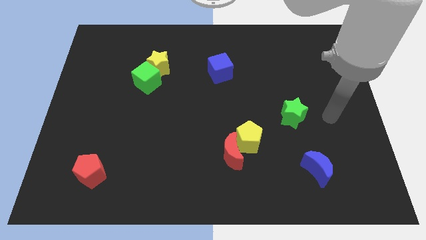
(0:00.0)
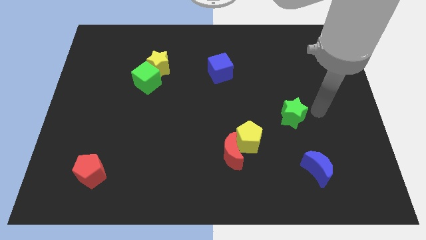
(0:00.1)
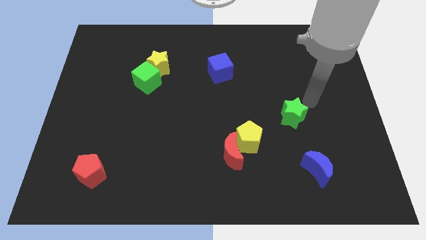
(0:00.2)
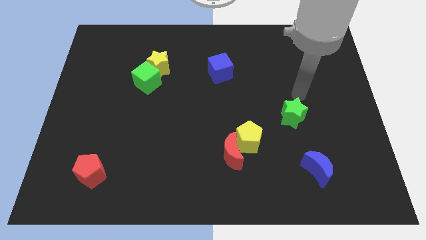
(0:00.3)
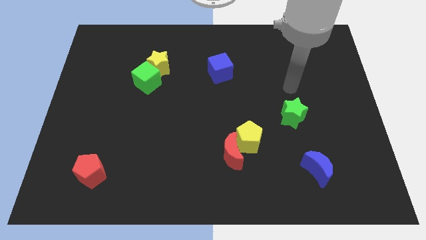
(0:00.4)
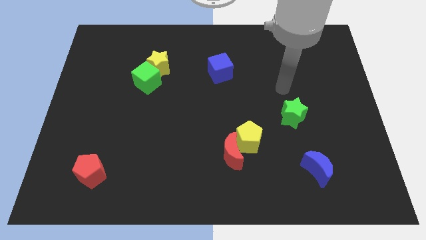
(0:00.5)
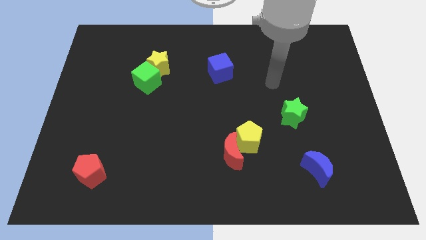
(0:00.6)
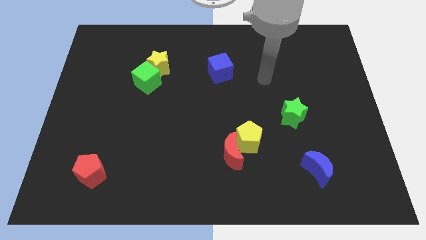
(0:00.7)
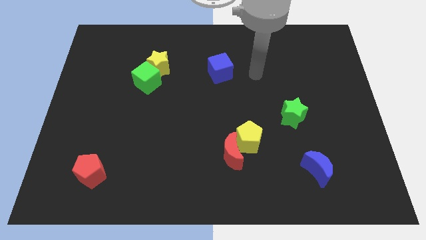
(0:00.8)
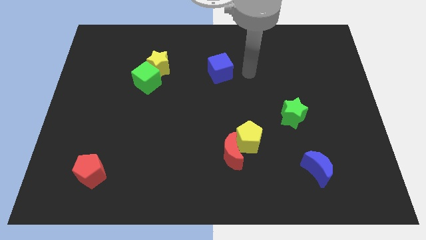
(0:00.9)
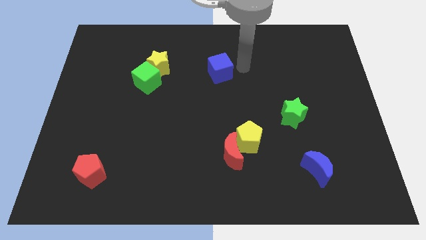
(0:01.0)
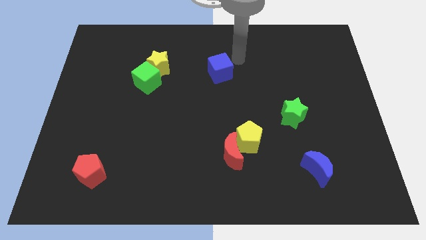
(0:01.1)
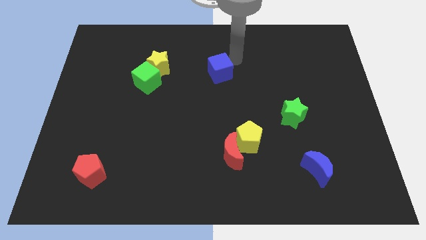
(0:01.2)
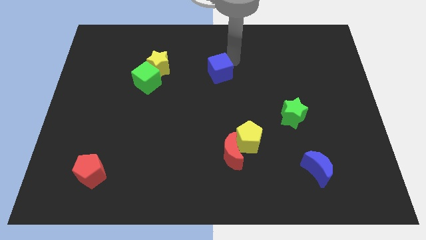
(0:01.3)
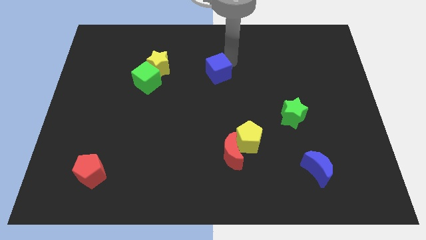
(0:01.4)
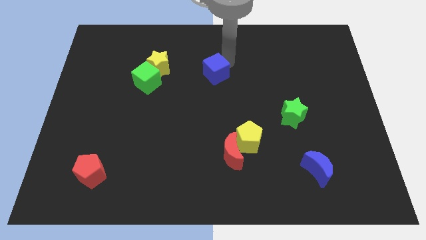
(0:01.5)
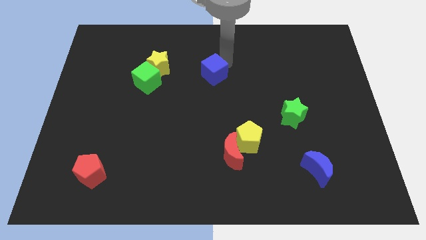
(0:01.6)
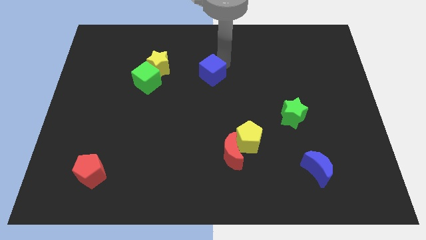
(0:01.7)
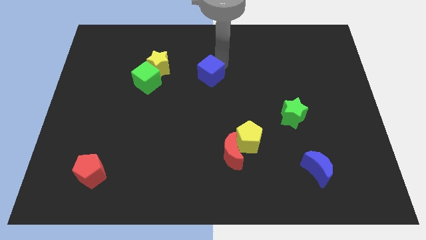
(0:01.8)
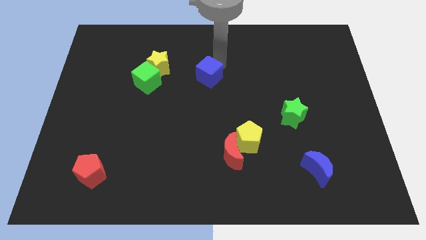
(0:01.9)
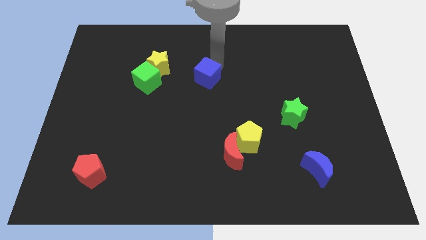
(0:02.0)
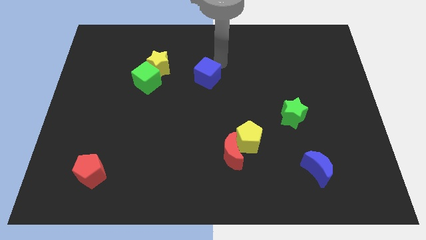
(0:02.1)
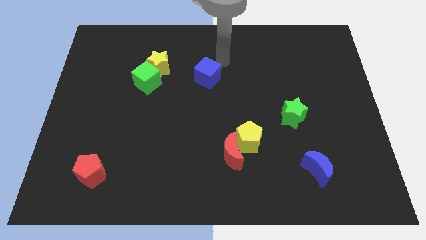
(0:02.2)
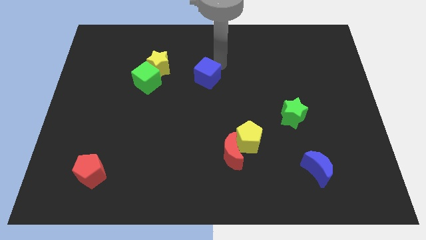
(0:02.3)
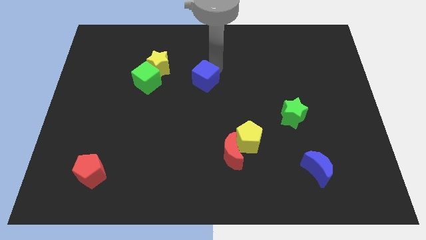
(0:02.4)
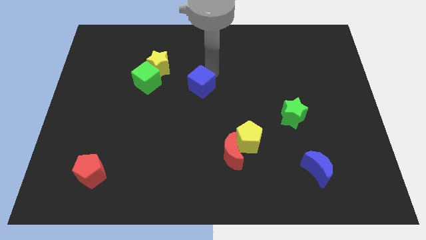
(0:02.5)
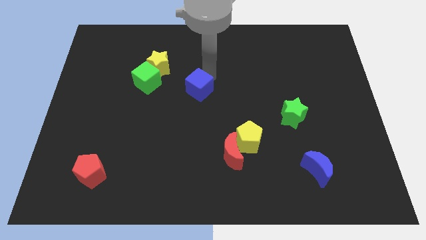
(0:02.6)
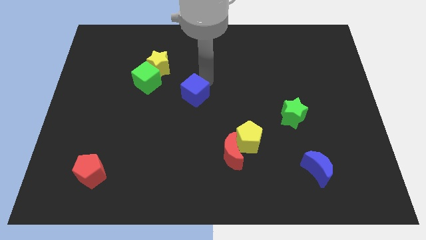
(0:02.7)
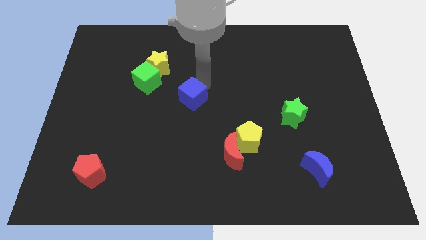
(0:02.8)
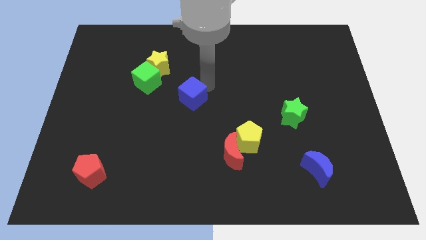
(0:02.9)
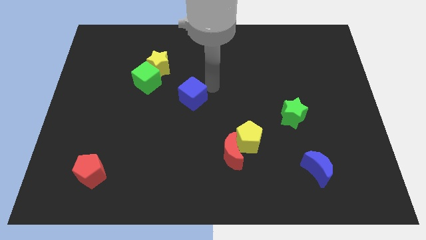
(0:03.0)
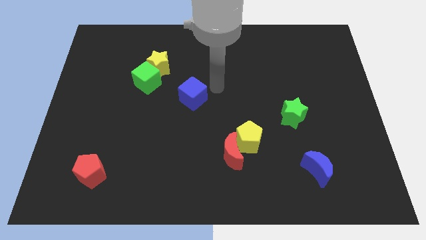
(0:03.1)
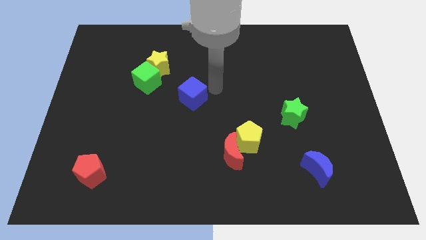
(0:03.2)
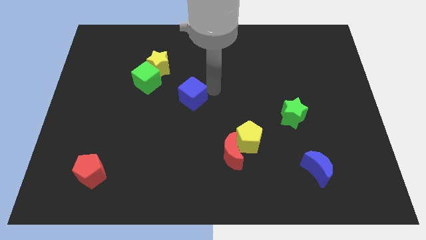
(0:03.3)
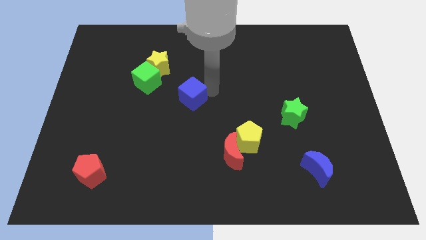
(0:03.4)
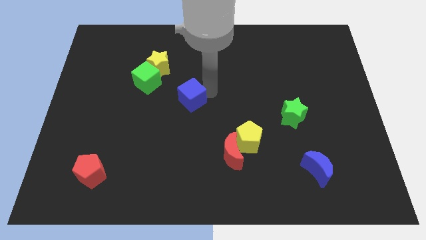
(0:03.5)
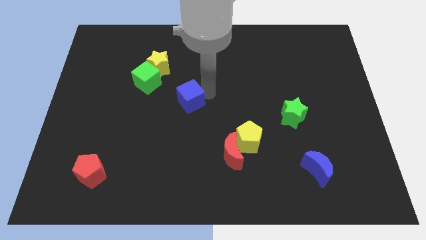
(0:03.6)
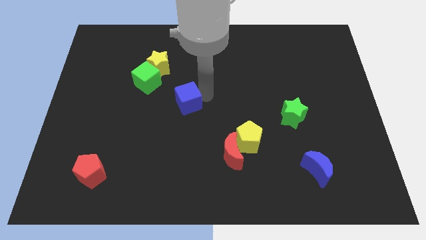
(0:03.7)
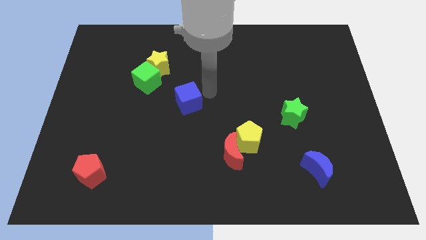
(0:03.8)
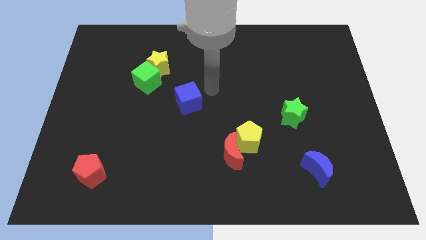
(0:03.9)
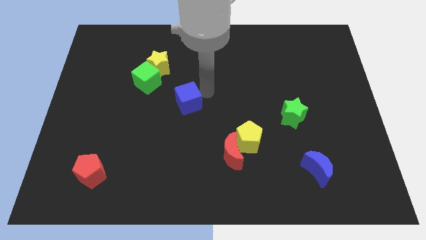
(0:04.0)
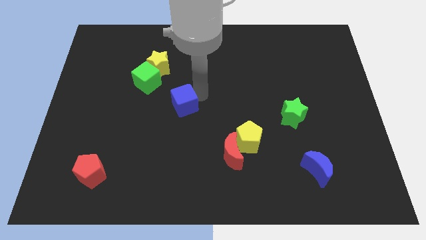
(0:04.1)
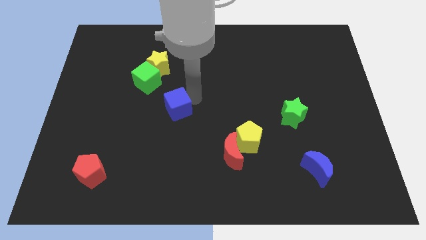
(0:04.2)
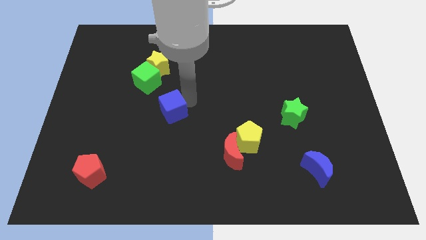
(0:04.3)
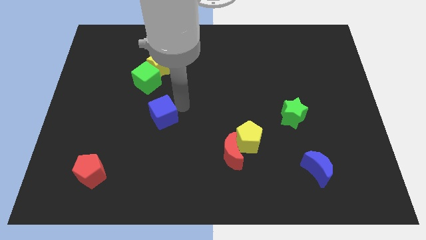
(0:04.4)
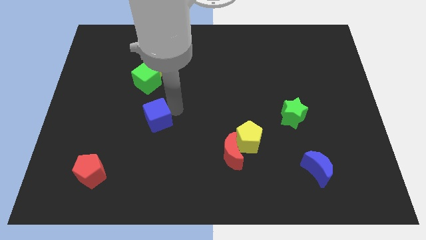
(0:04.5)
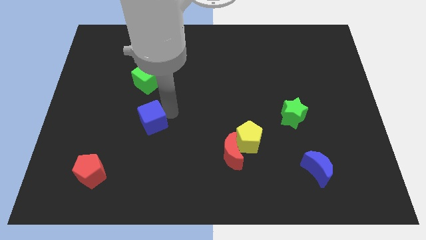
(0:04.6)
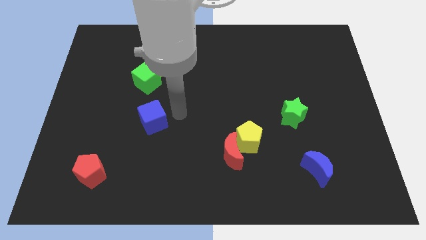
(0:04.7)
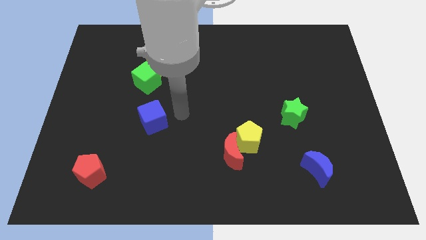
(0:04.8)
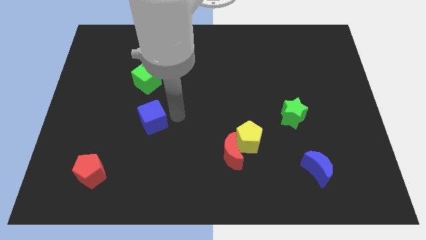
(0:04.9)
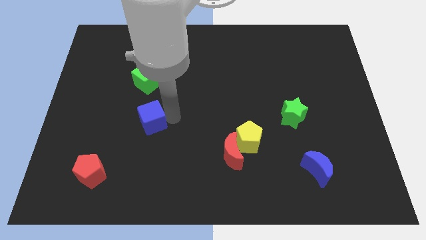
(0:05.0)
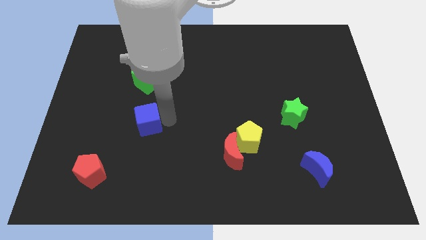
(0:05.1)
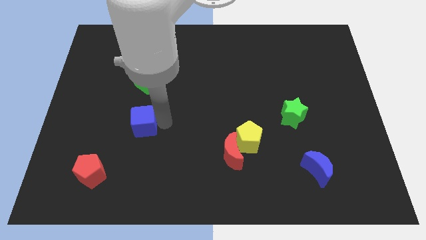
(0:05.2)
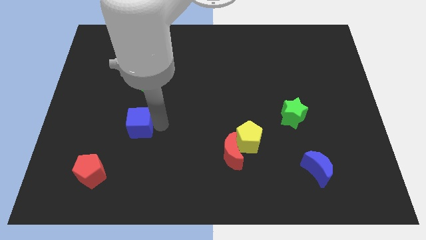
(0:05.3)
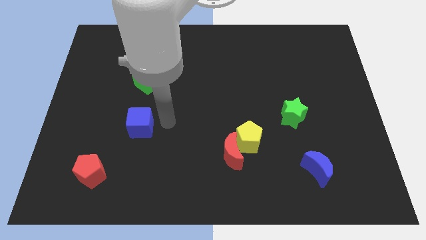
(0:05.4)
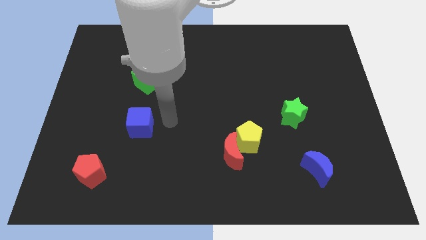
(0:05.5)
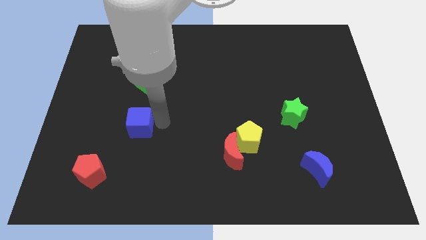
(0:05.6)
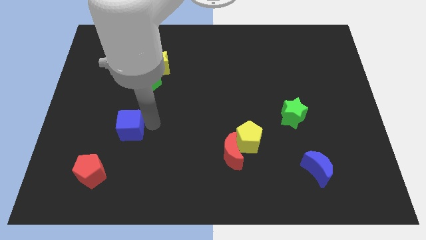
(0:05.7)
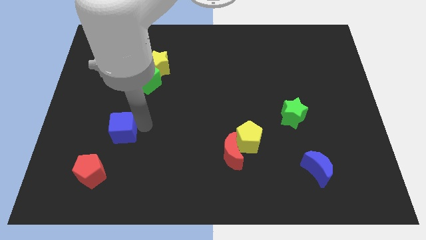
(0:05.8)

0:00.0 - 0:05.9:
put the blue cube above the red pentagon

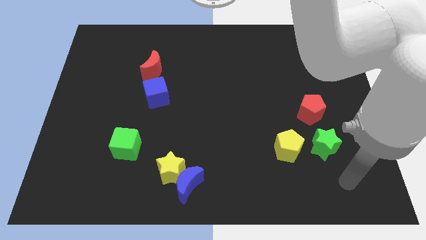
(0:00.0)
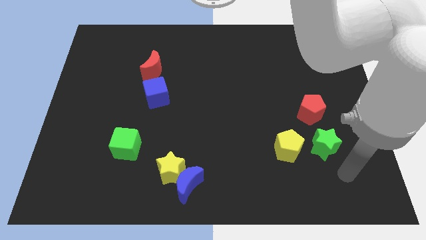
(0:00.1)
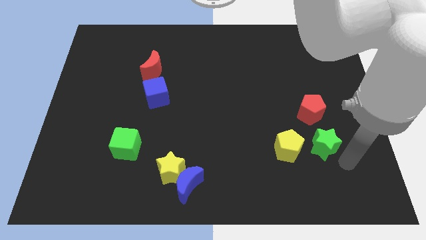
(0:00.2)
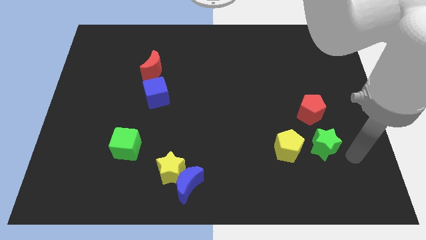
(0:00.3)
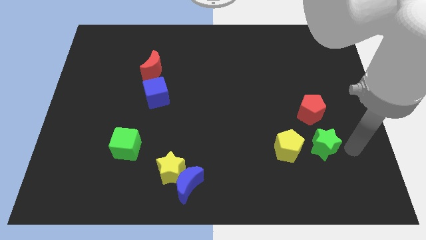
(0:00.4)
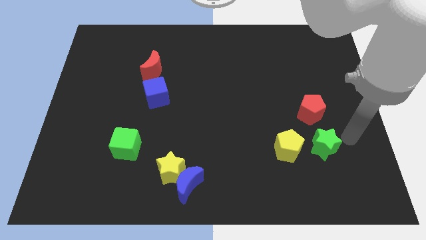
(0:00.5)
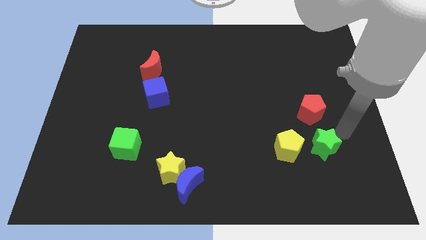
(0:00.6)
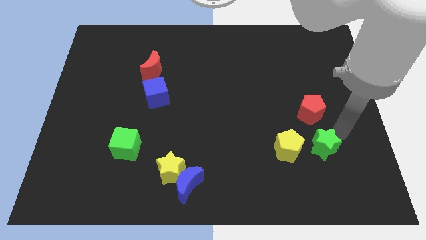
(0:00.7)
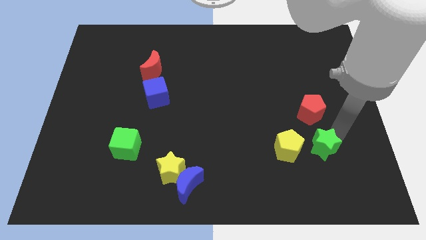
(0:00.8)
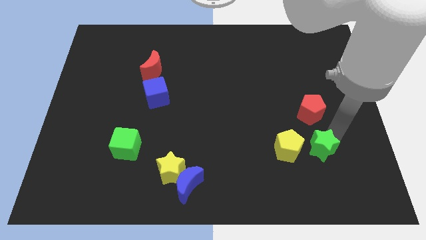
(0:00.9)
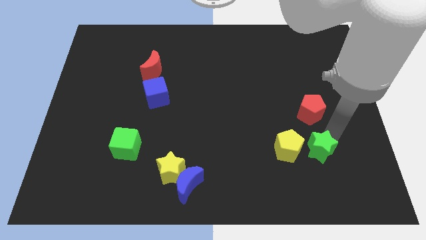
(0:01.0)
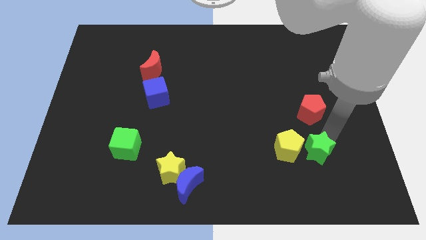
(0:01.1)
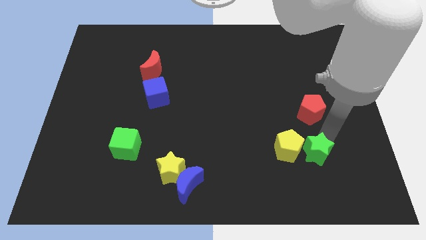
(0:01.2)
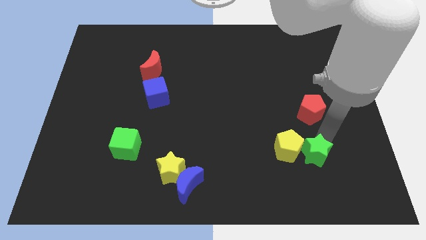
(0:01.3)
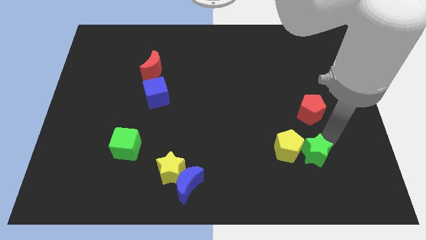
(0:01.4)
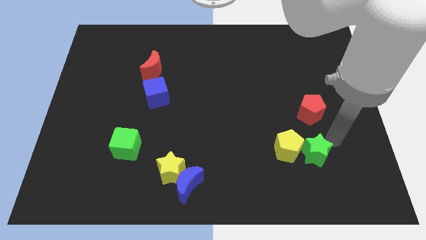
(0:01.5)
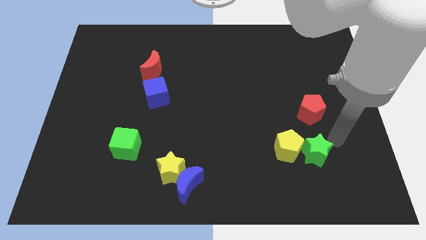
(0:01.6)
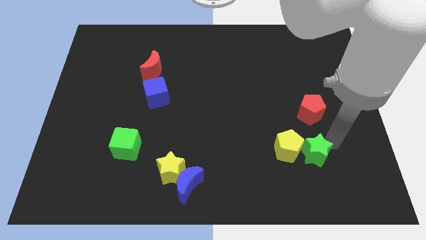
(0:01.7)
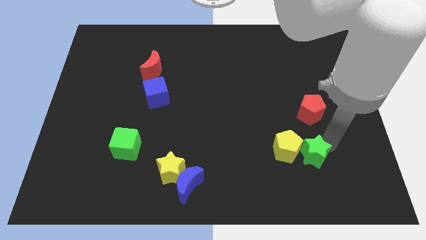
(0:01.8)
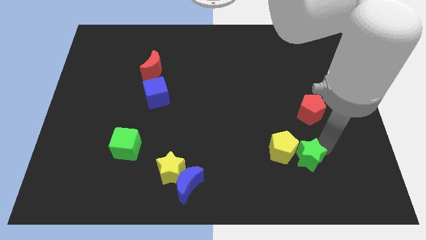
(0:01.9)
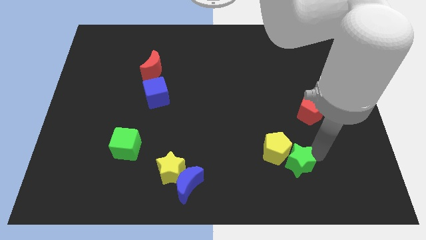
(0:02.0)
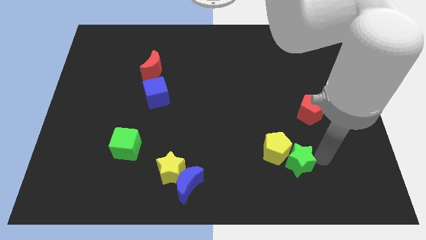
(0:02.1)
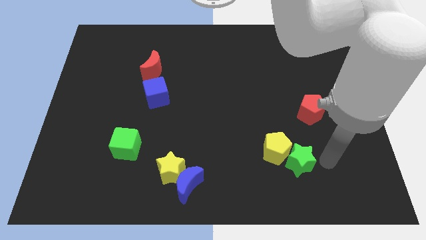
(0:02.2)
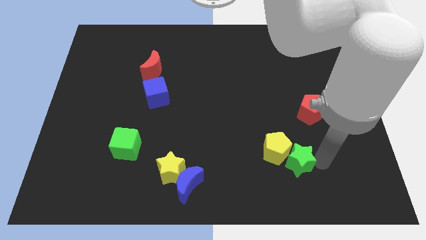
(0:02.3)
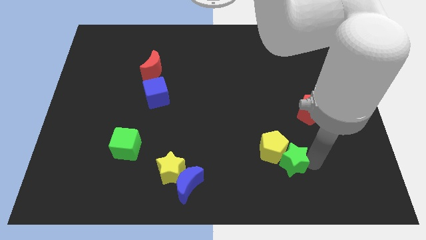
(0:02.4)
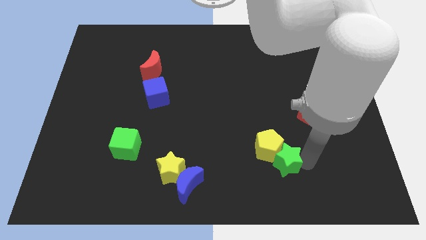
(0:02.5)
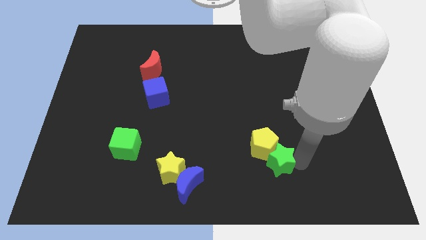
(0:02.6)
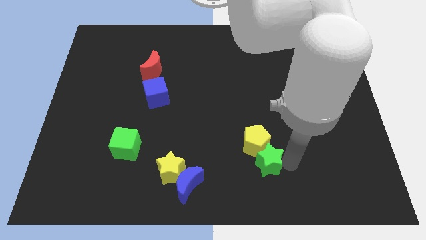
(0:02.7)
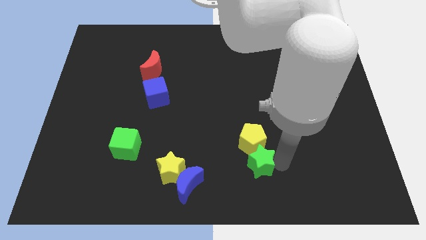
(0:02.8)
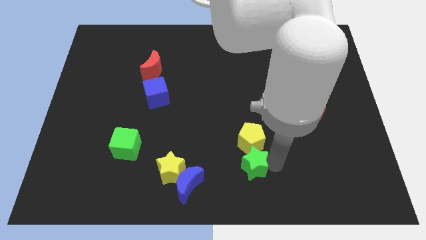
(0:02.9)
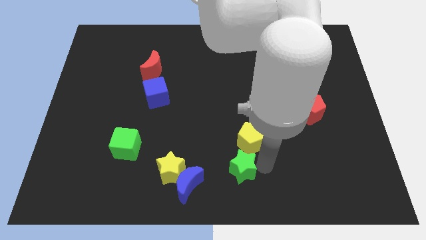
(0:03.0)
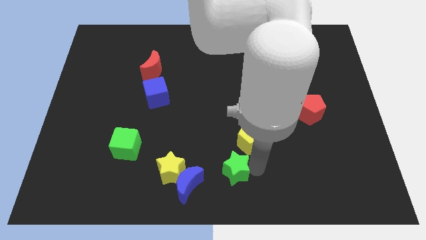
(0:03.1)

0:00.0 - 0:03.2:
put the green star diagonally up and to the right of the blue moon
